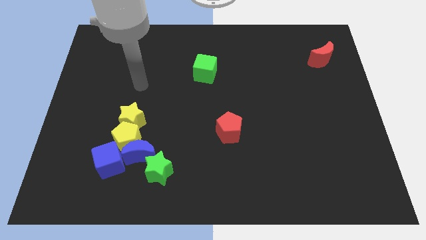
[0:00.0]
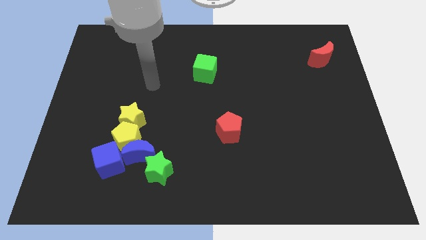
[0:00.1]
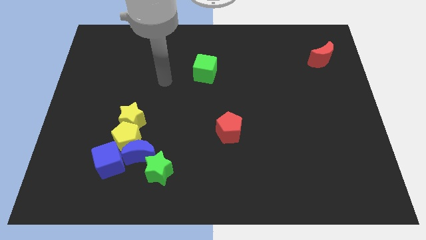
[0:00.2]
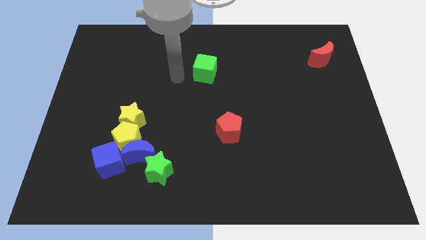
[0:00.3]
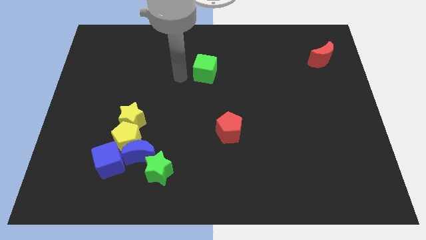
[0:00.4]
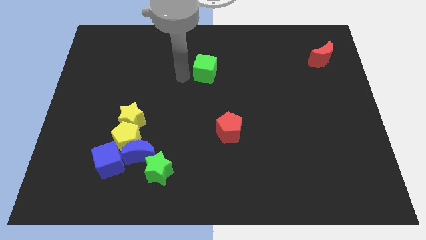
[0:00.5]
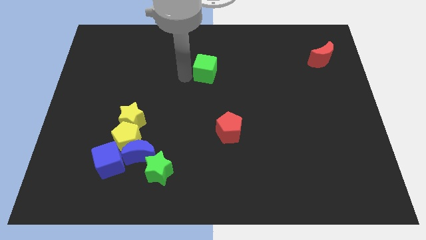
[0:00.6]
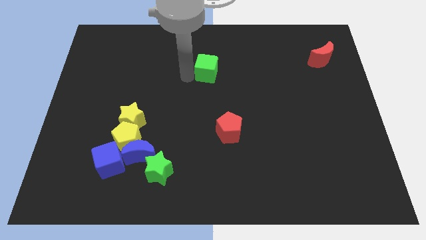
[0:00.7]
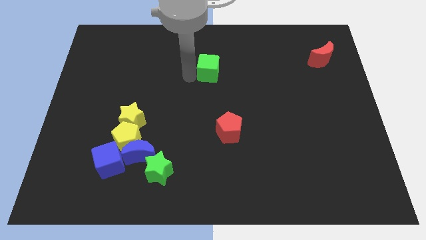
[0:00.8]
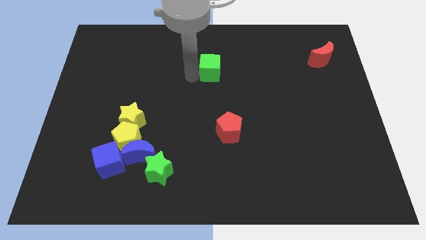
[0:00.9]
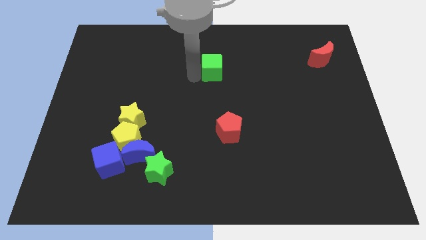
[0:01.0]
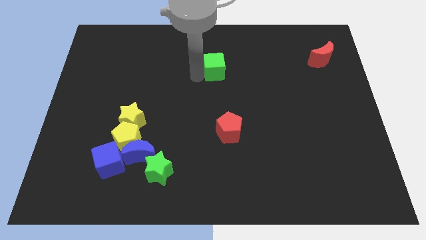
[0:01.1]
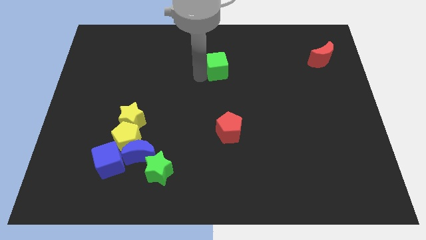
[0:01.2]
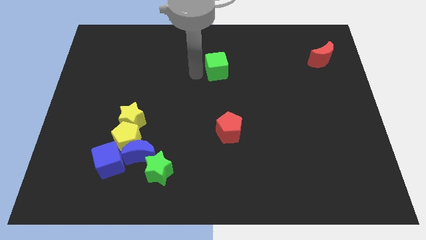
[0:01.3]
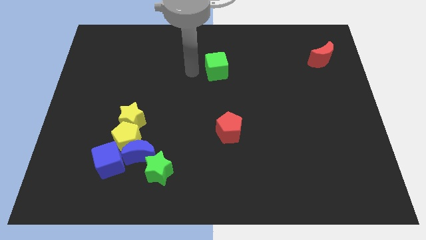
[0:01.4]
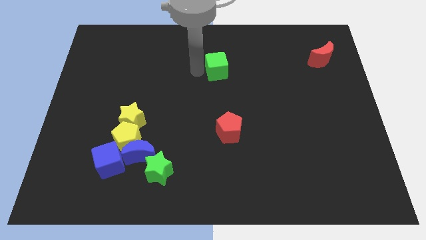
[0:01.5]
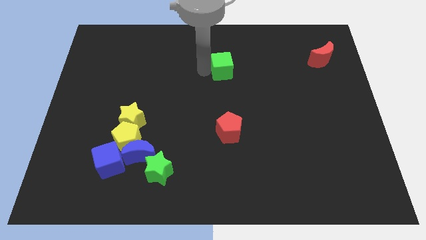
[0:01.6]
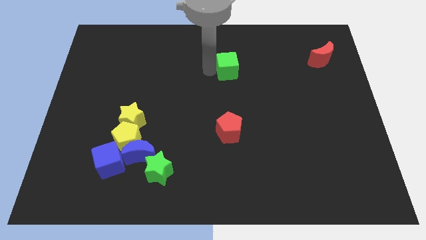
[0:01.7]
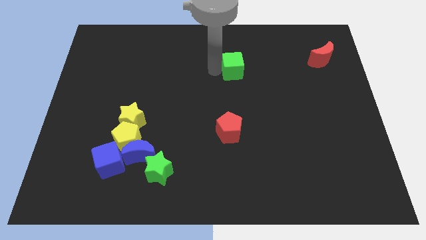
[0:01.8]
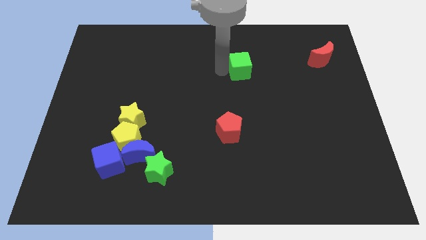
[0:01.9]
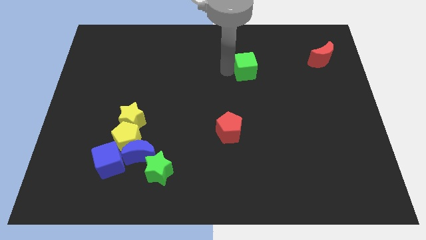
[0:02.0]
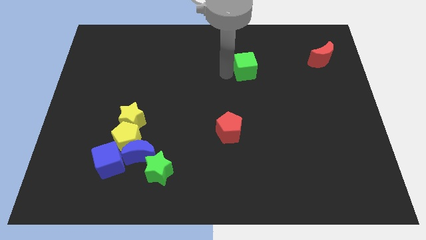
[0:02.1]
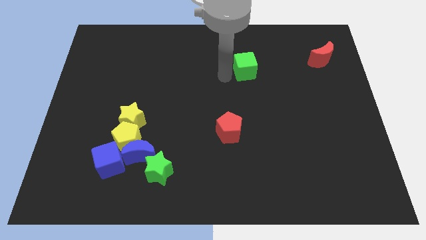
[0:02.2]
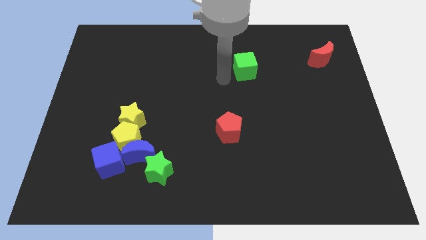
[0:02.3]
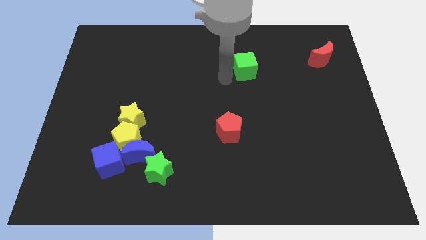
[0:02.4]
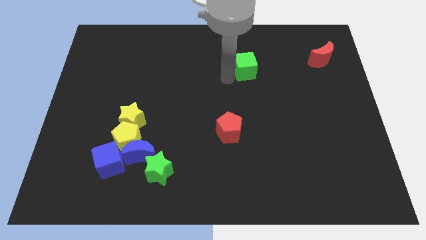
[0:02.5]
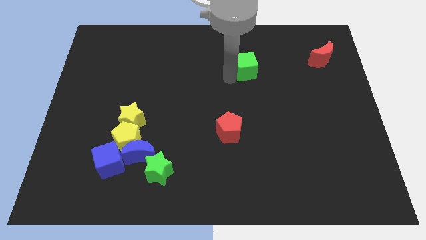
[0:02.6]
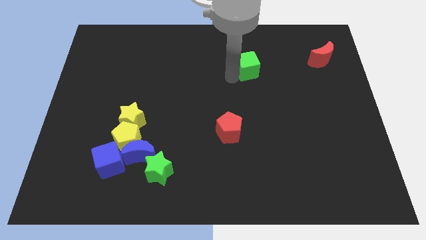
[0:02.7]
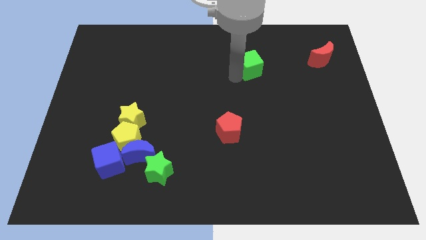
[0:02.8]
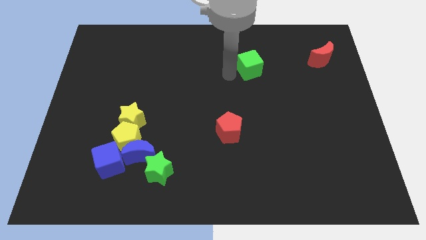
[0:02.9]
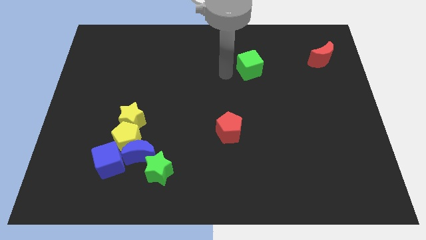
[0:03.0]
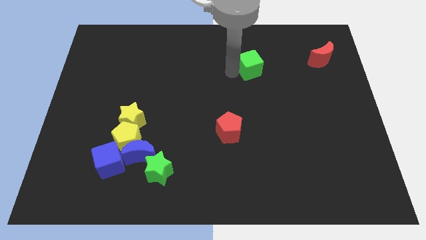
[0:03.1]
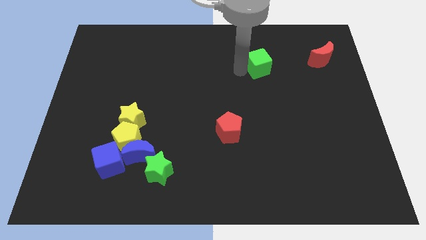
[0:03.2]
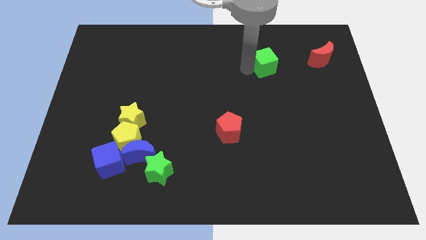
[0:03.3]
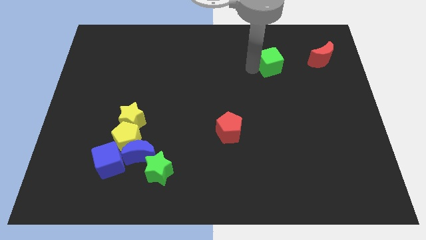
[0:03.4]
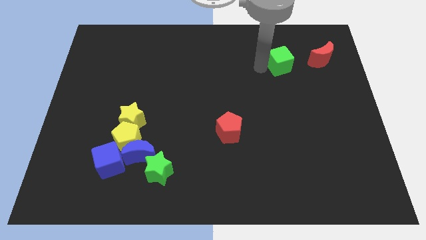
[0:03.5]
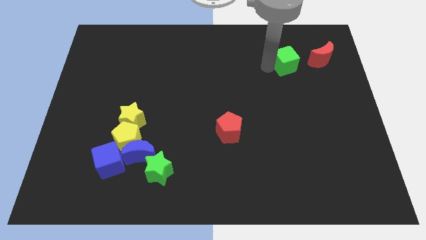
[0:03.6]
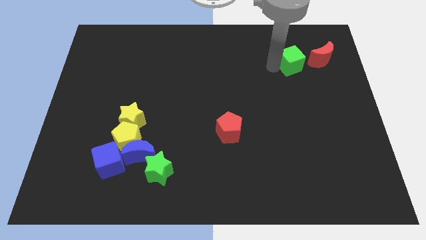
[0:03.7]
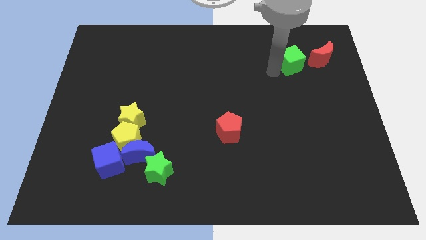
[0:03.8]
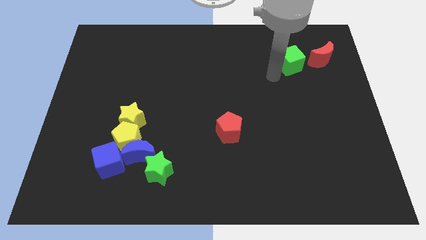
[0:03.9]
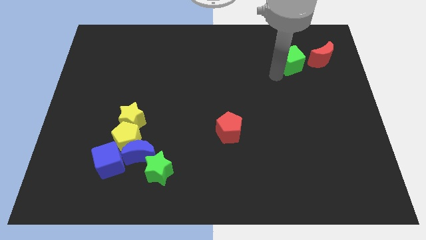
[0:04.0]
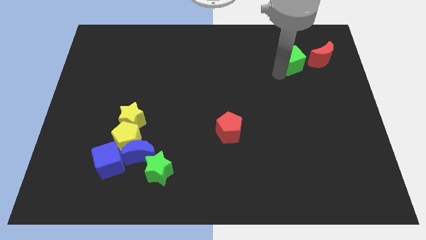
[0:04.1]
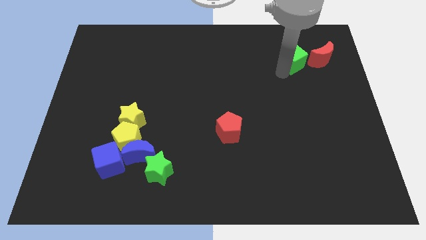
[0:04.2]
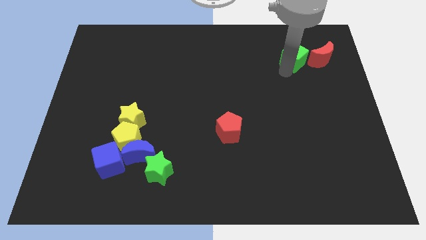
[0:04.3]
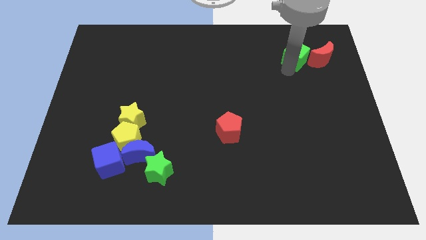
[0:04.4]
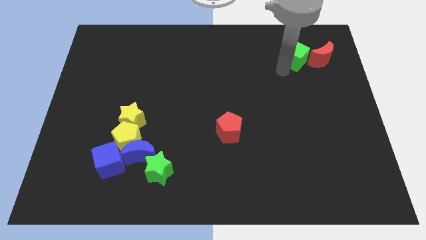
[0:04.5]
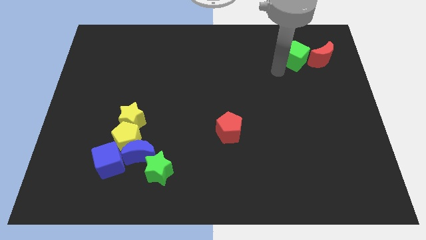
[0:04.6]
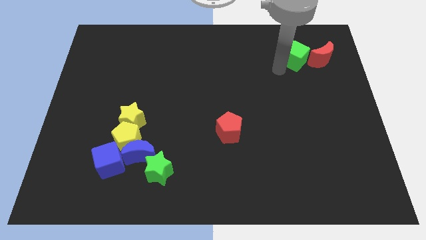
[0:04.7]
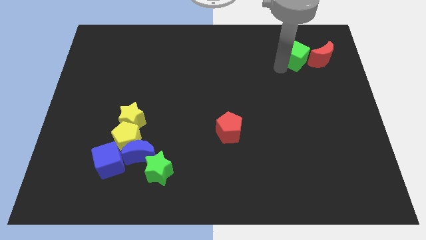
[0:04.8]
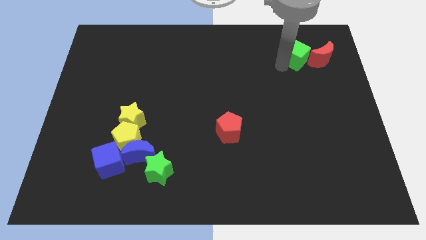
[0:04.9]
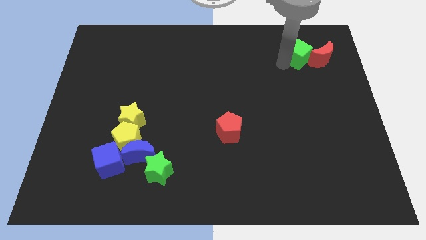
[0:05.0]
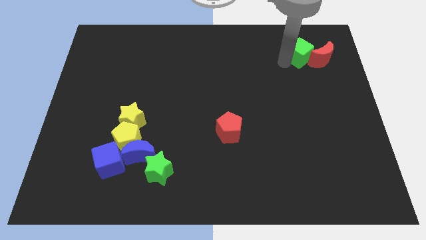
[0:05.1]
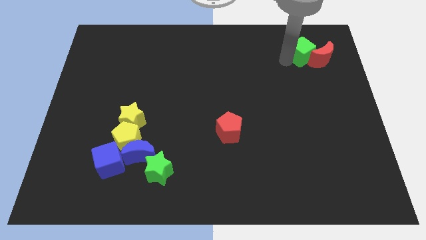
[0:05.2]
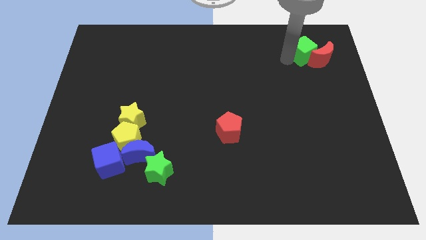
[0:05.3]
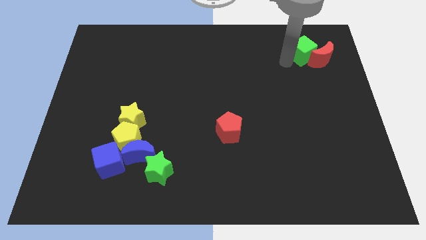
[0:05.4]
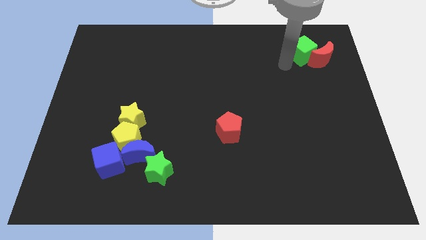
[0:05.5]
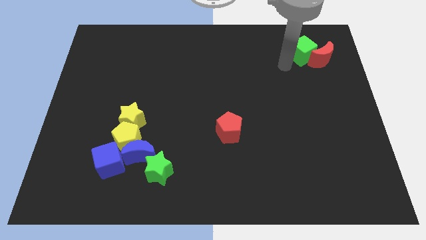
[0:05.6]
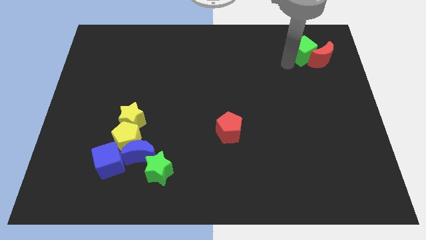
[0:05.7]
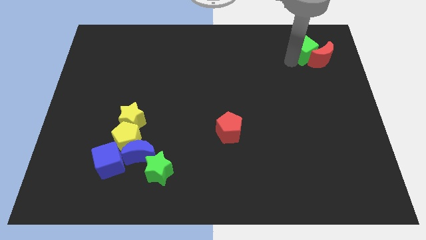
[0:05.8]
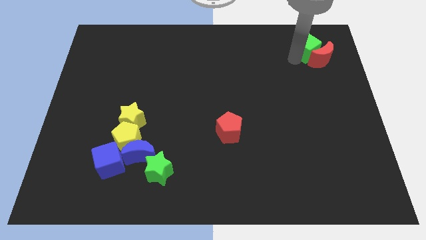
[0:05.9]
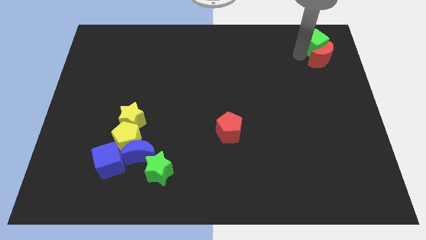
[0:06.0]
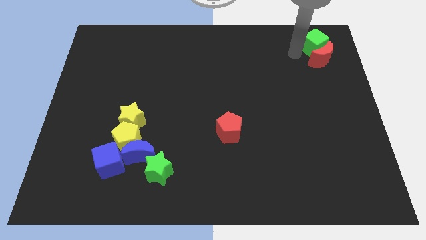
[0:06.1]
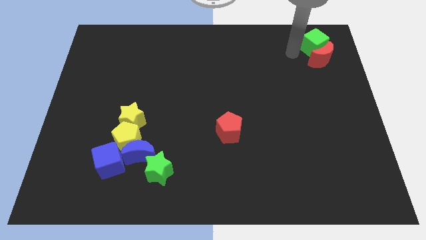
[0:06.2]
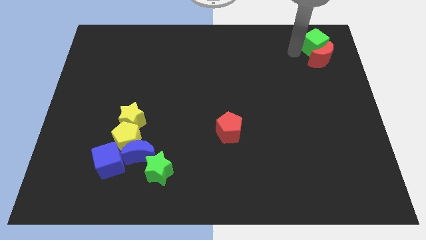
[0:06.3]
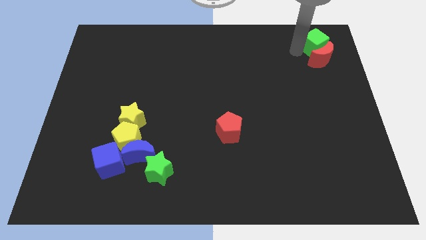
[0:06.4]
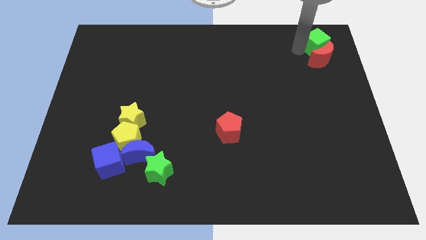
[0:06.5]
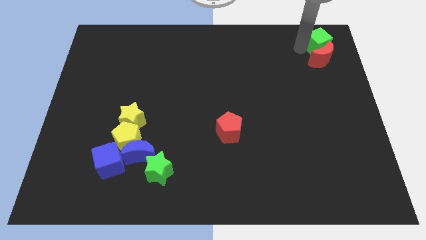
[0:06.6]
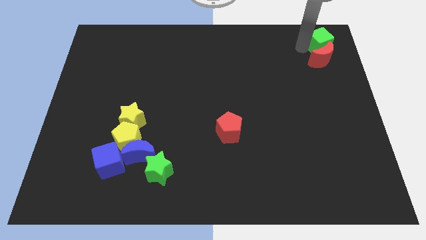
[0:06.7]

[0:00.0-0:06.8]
put the green cube to the top right
